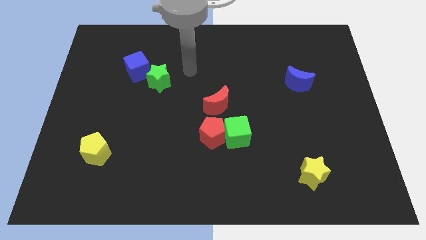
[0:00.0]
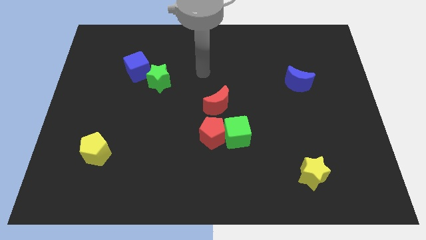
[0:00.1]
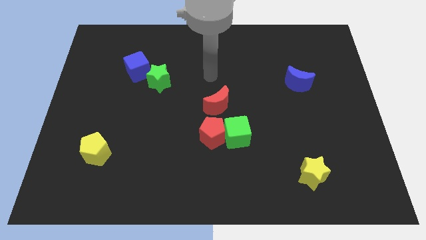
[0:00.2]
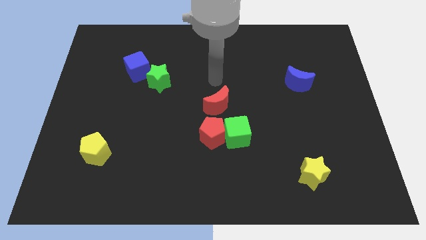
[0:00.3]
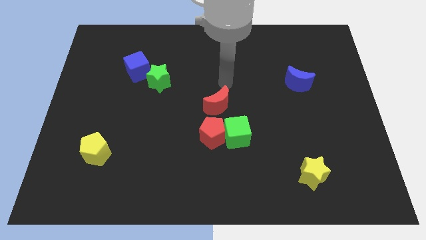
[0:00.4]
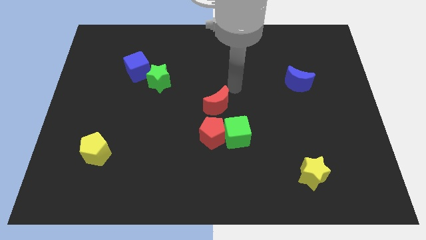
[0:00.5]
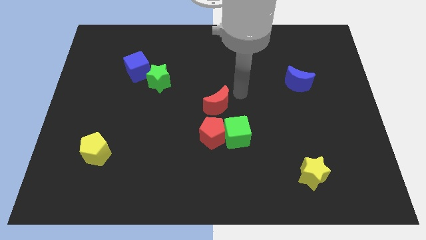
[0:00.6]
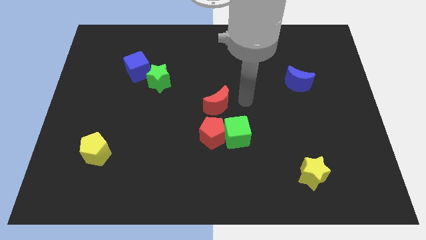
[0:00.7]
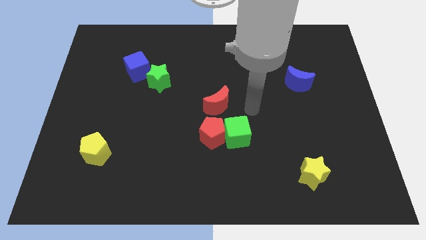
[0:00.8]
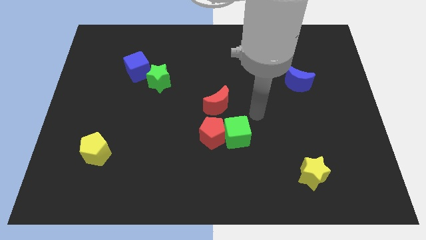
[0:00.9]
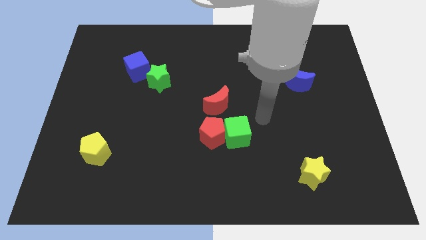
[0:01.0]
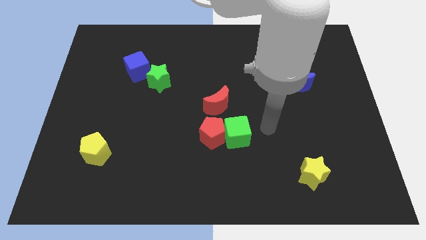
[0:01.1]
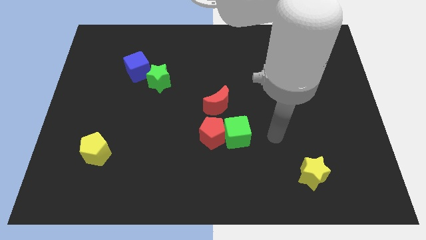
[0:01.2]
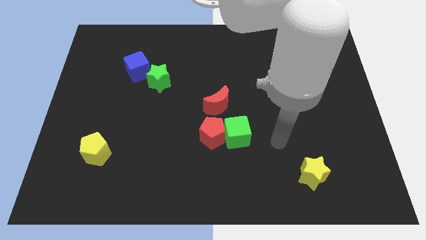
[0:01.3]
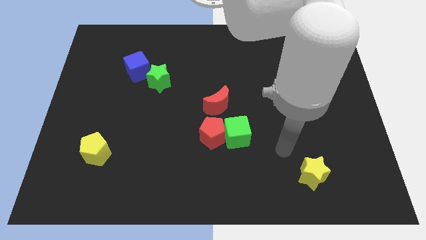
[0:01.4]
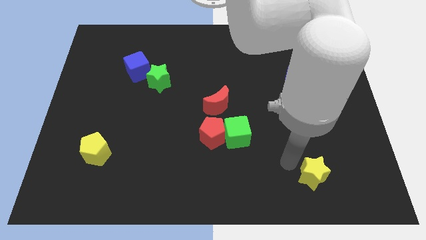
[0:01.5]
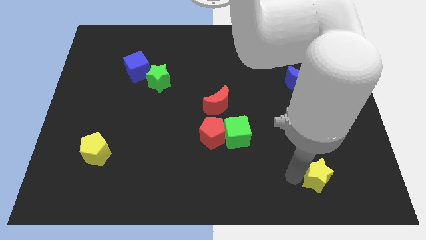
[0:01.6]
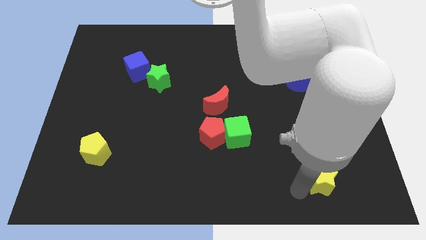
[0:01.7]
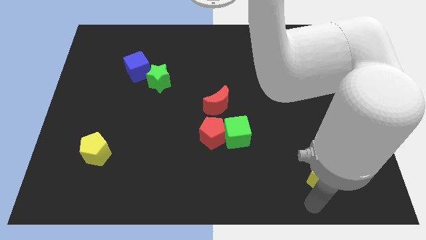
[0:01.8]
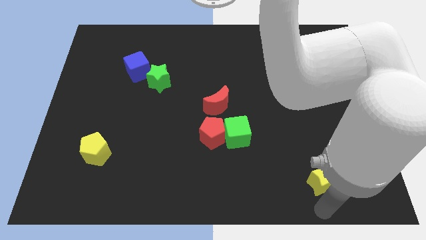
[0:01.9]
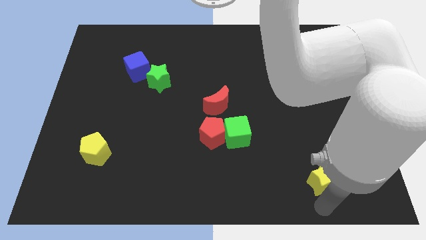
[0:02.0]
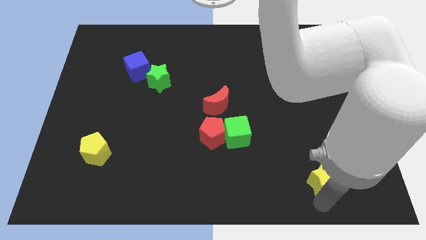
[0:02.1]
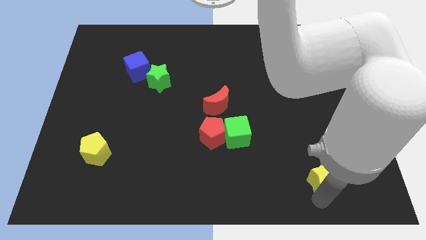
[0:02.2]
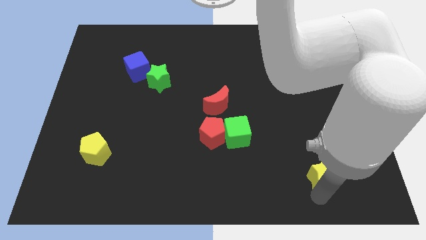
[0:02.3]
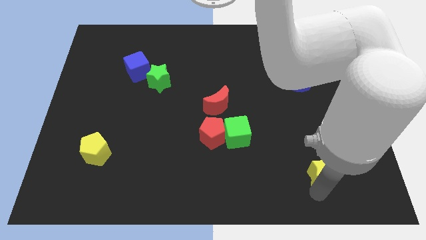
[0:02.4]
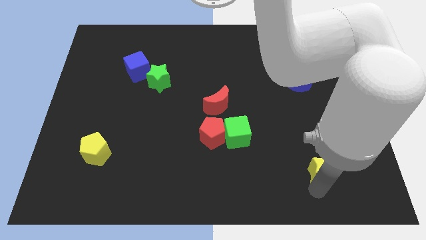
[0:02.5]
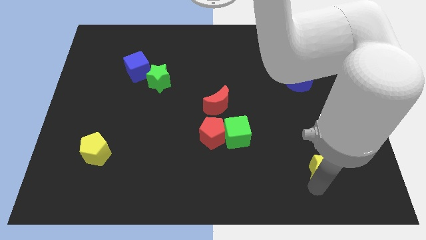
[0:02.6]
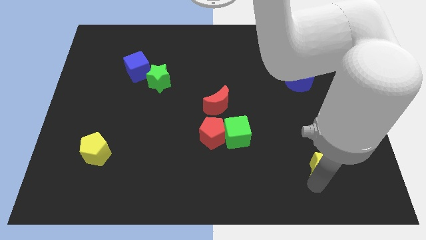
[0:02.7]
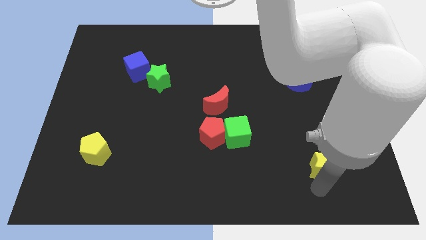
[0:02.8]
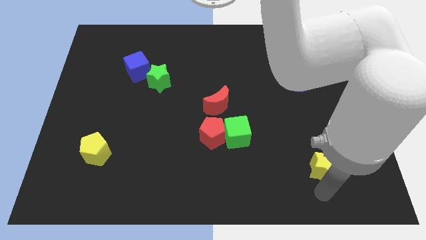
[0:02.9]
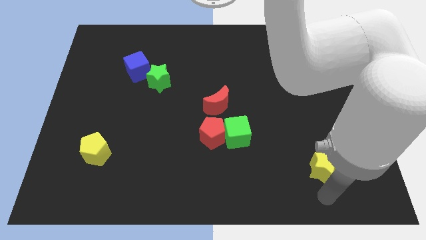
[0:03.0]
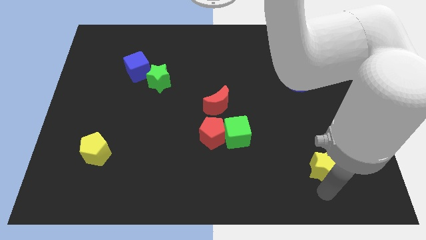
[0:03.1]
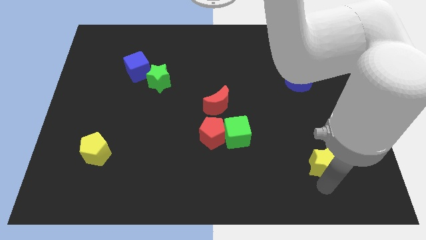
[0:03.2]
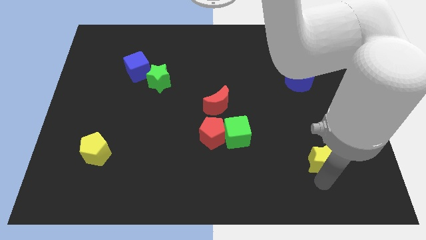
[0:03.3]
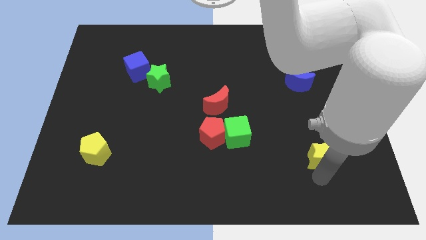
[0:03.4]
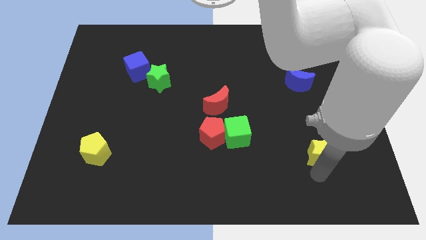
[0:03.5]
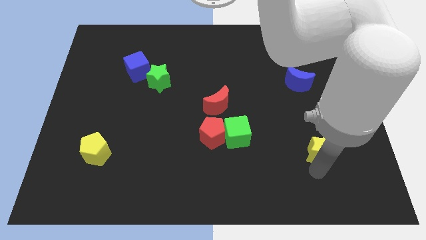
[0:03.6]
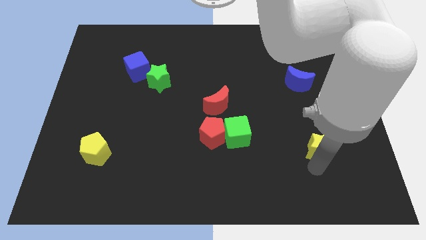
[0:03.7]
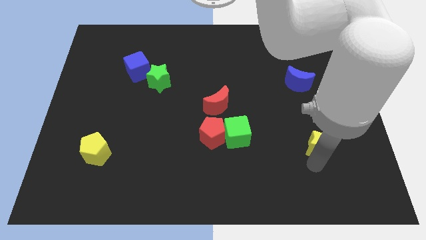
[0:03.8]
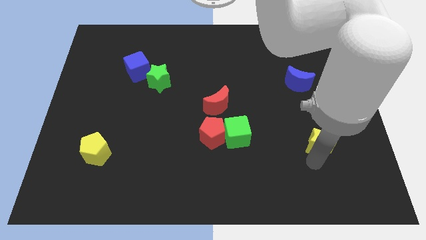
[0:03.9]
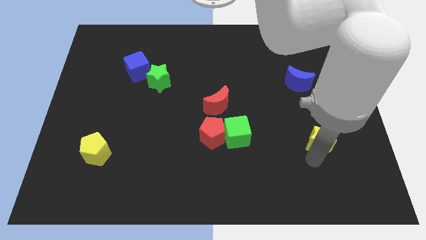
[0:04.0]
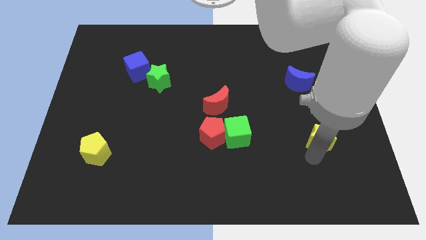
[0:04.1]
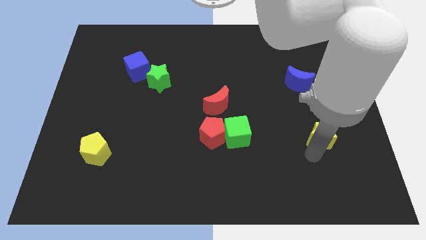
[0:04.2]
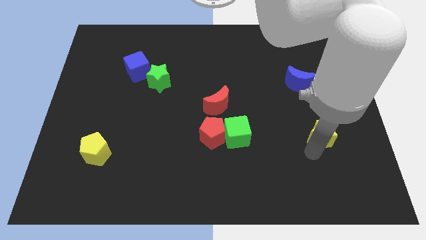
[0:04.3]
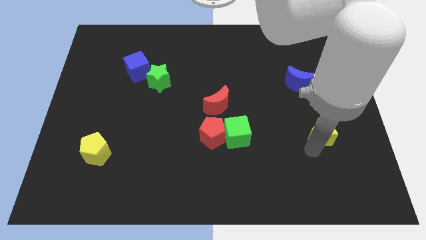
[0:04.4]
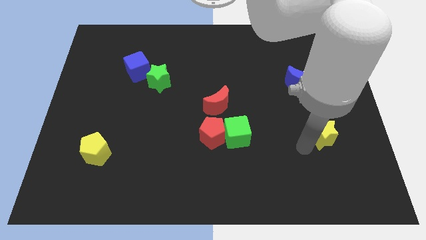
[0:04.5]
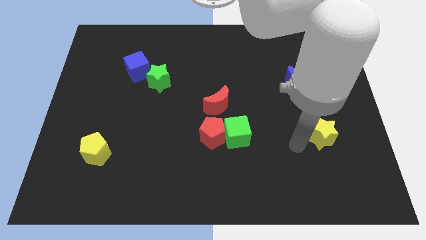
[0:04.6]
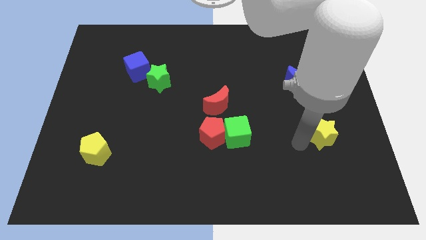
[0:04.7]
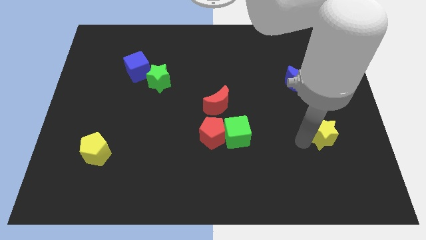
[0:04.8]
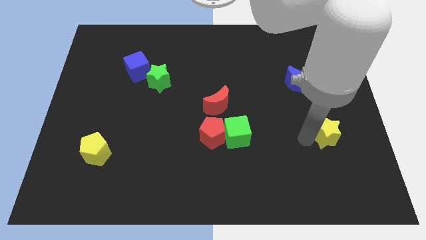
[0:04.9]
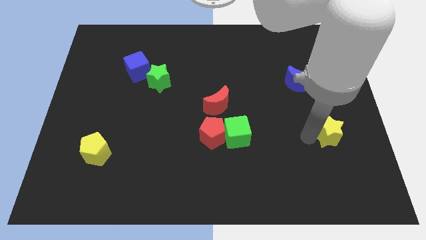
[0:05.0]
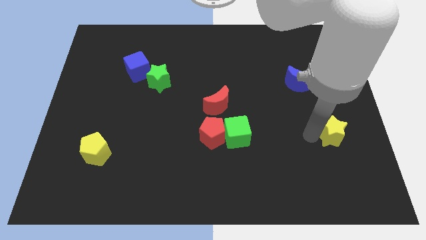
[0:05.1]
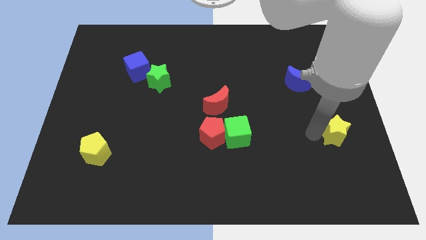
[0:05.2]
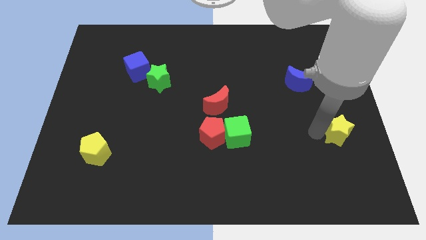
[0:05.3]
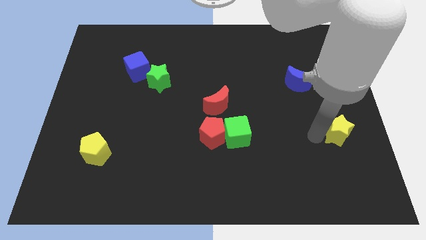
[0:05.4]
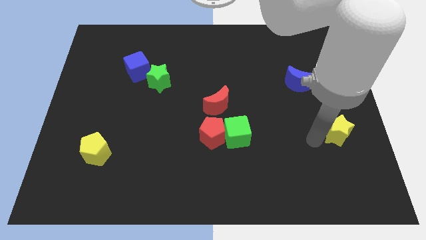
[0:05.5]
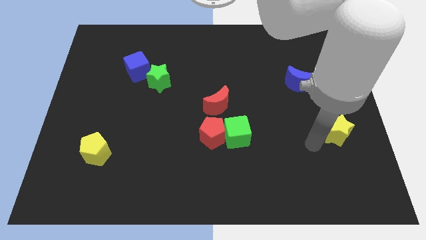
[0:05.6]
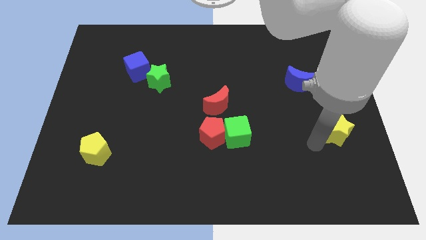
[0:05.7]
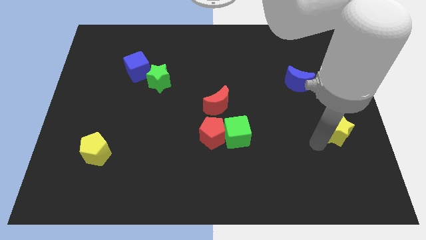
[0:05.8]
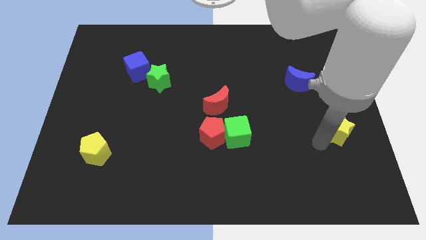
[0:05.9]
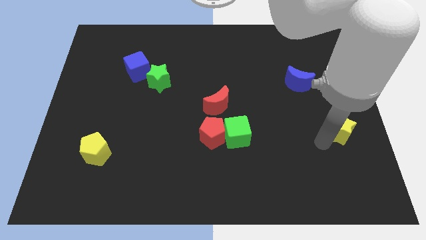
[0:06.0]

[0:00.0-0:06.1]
push the yellow star to the right side
